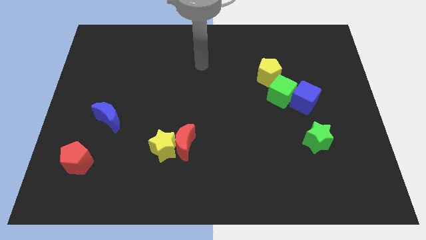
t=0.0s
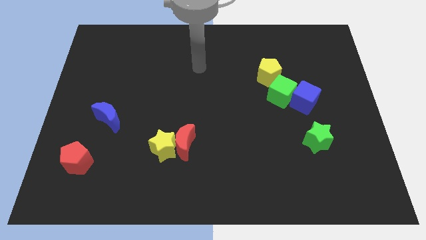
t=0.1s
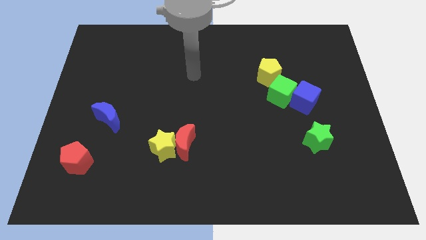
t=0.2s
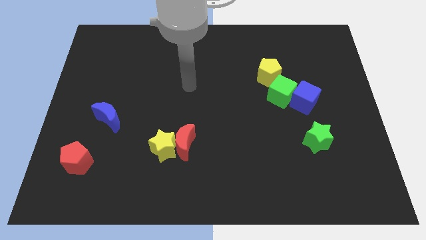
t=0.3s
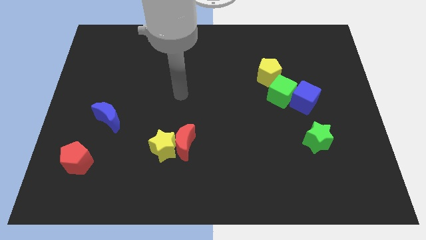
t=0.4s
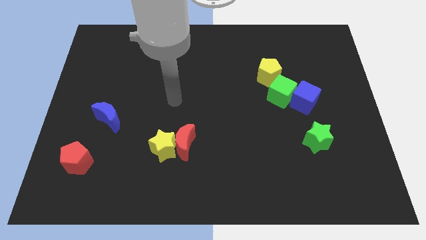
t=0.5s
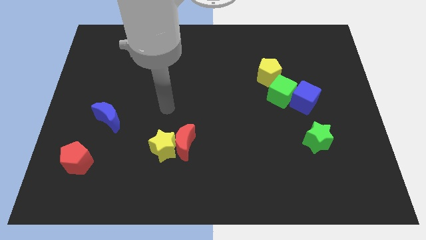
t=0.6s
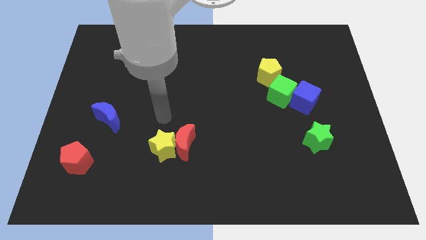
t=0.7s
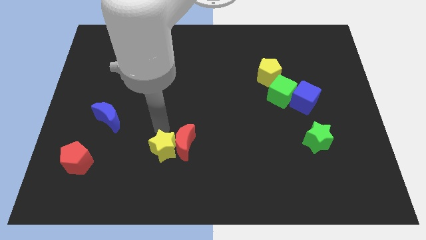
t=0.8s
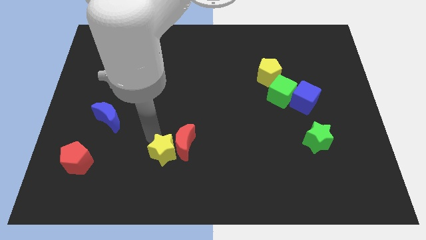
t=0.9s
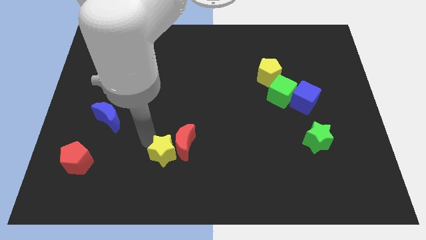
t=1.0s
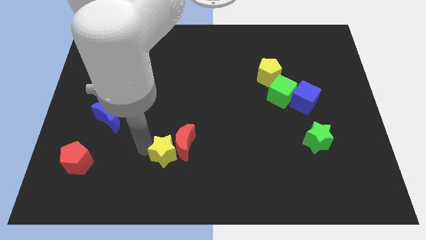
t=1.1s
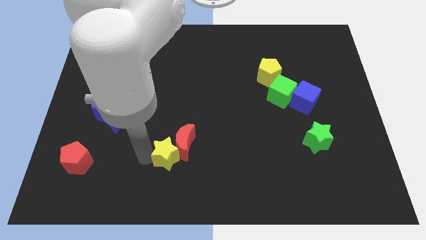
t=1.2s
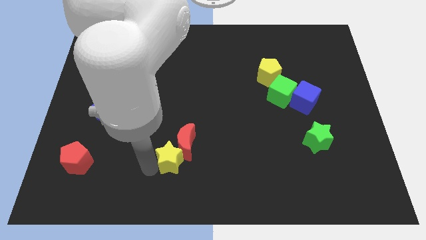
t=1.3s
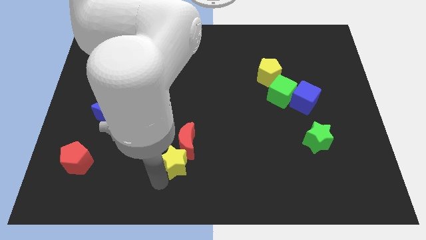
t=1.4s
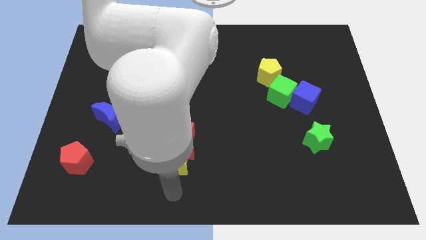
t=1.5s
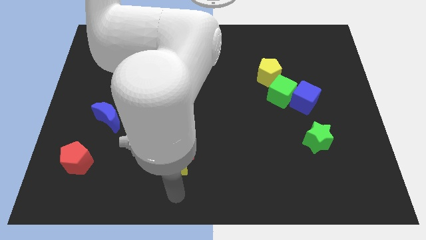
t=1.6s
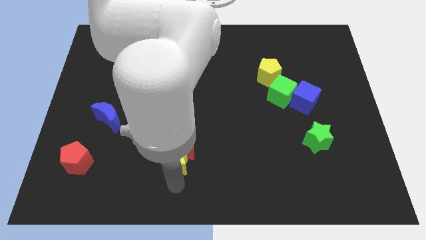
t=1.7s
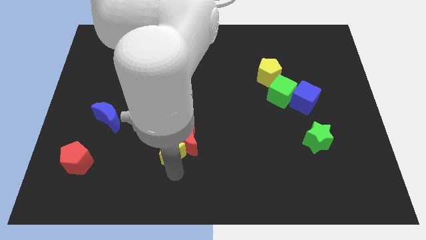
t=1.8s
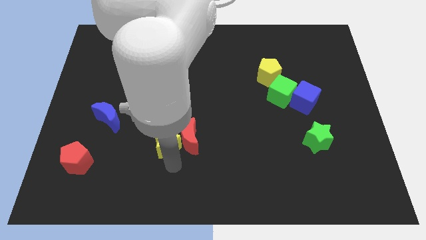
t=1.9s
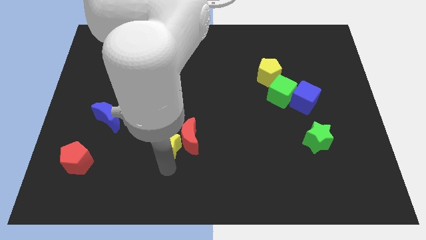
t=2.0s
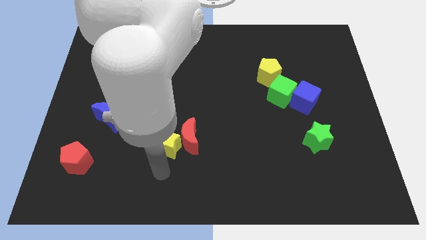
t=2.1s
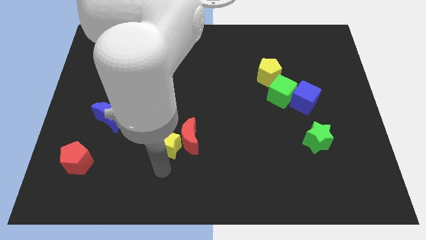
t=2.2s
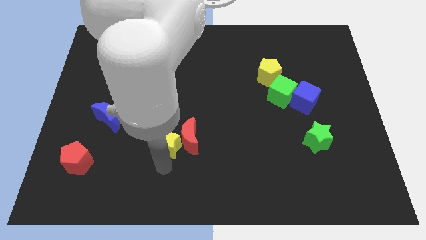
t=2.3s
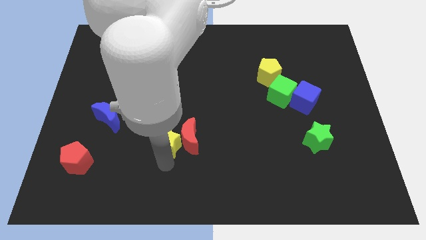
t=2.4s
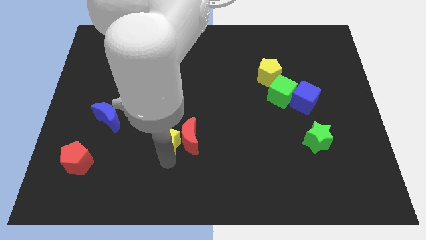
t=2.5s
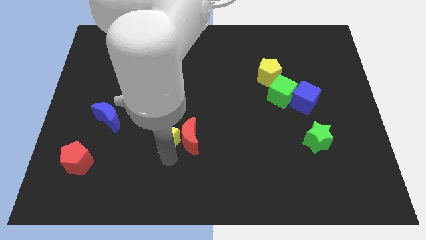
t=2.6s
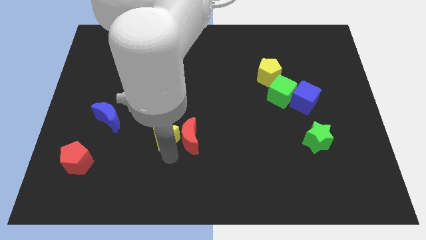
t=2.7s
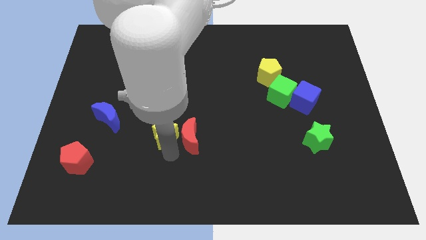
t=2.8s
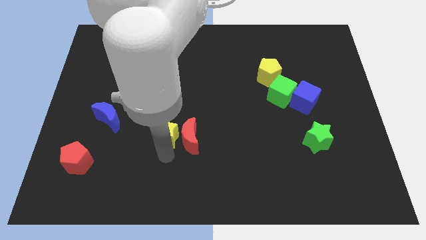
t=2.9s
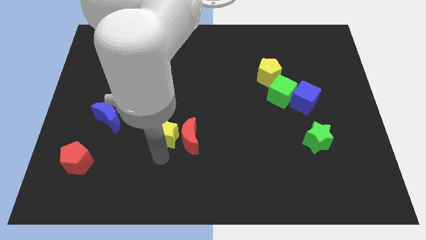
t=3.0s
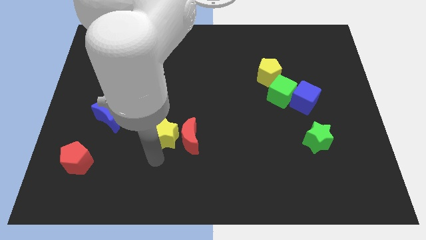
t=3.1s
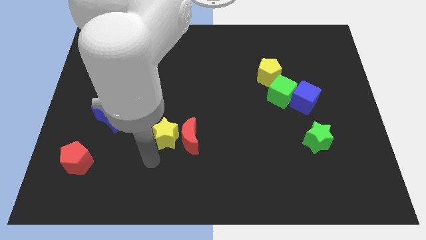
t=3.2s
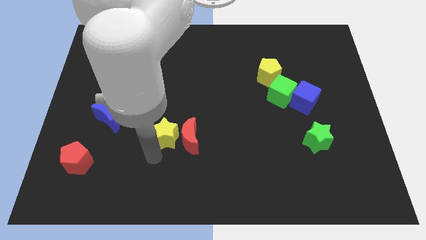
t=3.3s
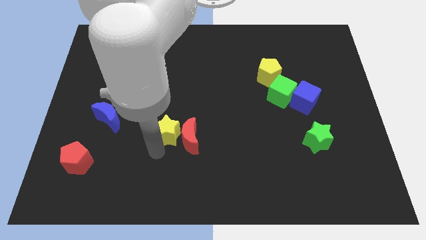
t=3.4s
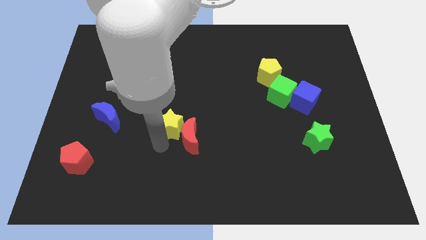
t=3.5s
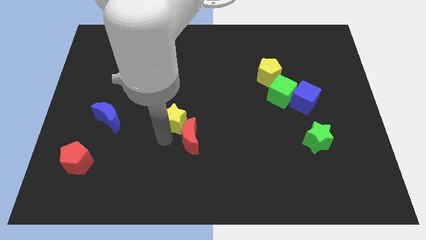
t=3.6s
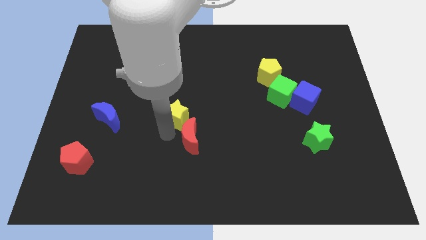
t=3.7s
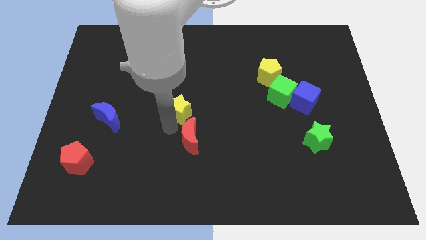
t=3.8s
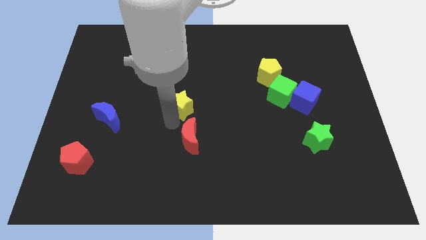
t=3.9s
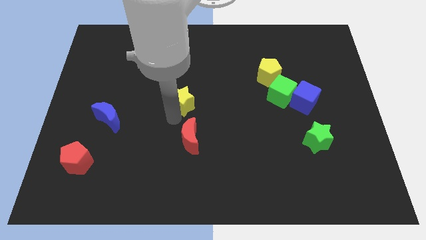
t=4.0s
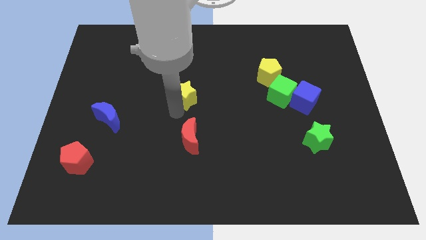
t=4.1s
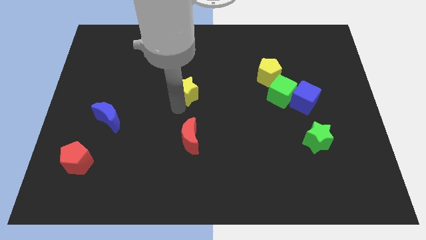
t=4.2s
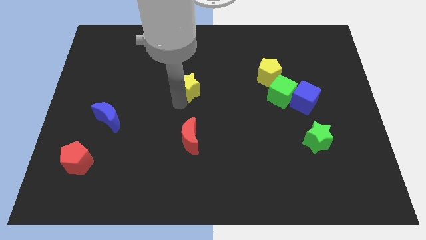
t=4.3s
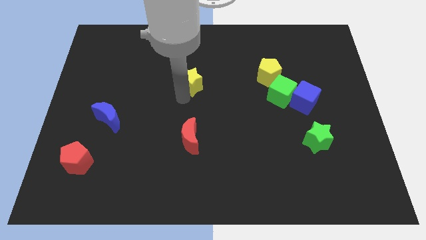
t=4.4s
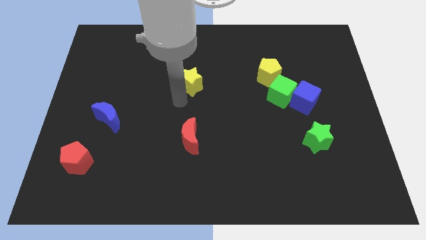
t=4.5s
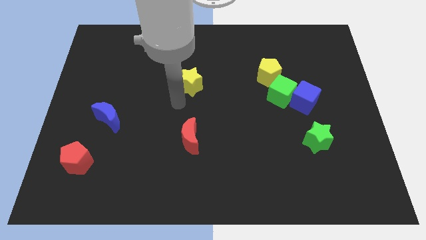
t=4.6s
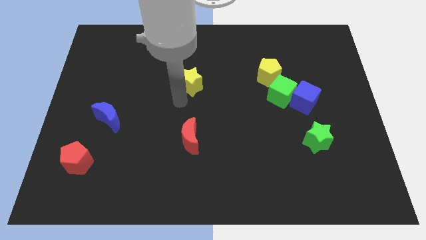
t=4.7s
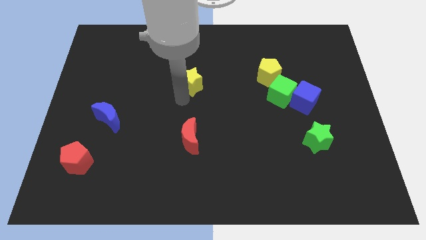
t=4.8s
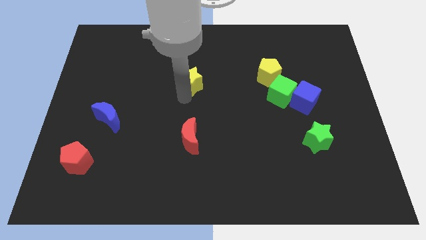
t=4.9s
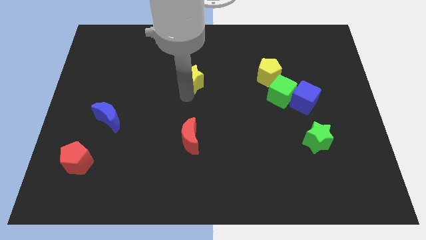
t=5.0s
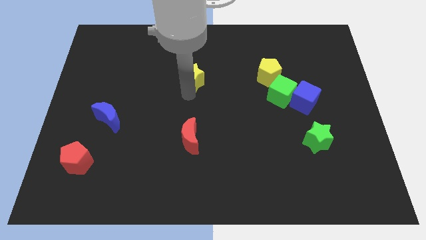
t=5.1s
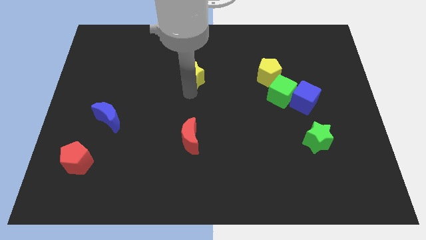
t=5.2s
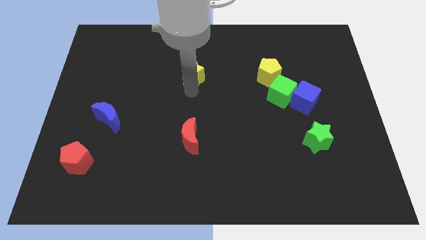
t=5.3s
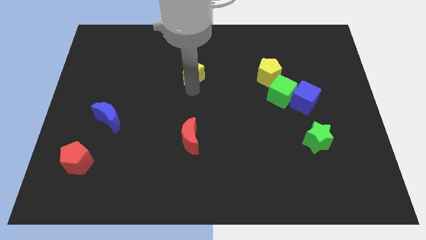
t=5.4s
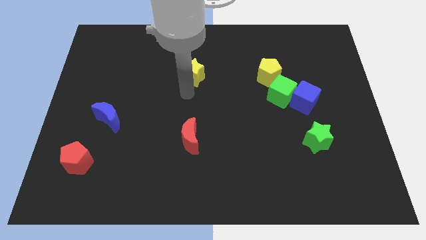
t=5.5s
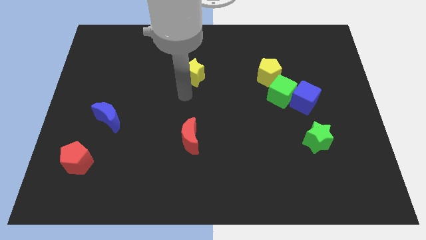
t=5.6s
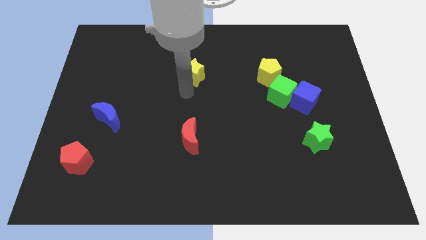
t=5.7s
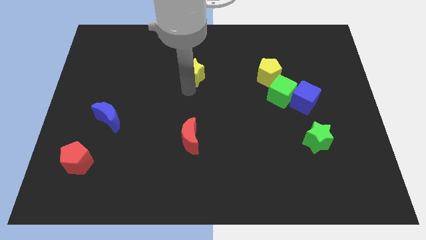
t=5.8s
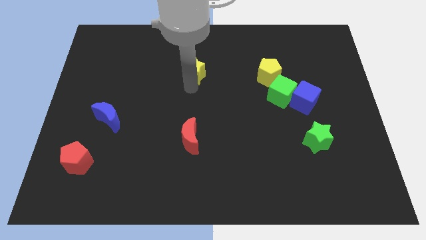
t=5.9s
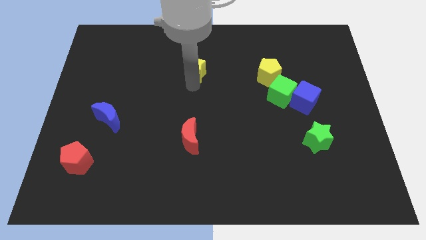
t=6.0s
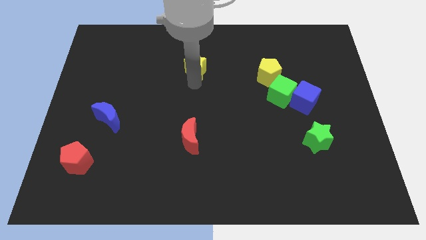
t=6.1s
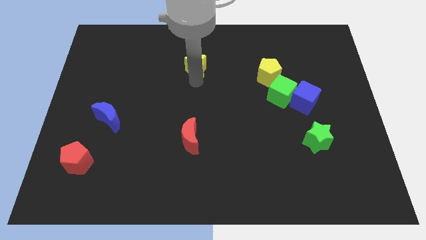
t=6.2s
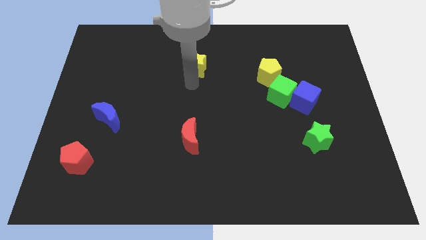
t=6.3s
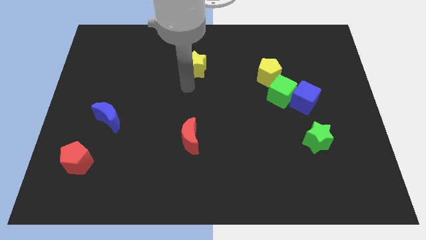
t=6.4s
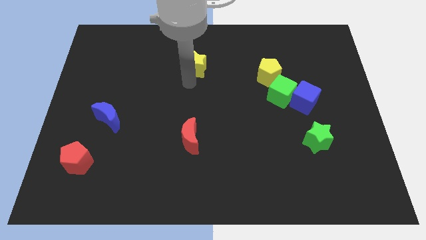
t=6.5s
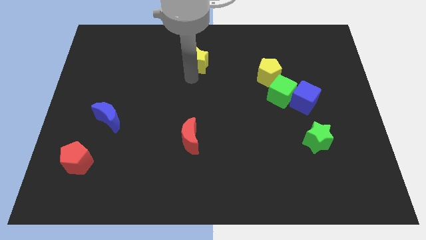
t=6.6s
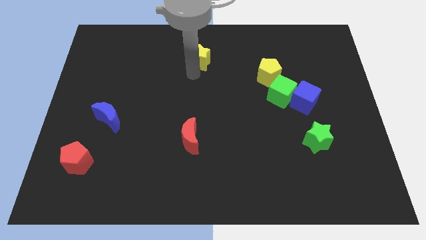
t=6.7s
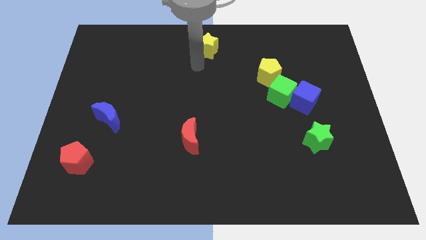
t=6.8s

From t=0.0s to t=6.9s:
push the yellow star to the top side
